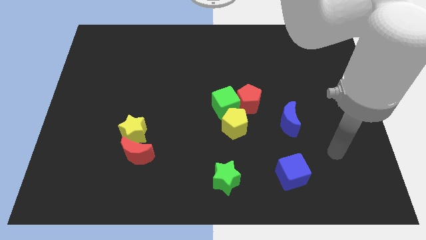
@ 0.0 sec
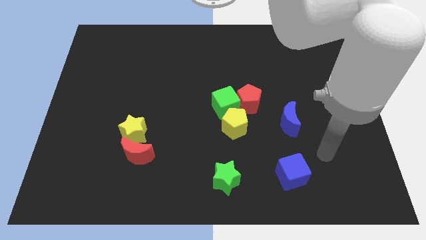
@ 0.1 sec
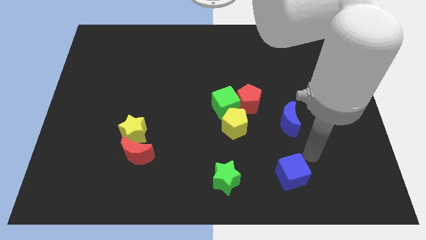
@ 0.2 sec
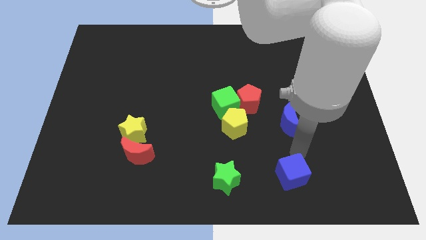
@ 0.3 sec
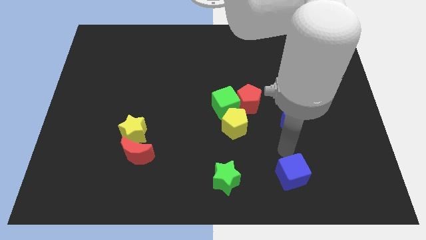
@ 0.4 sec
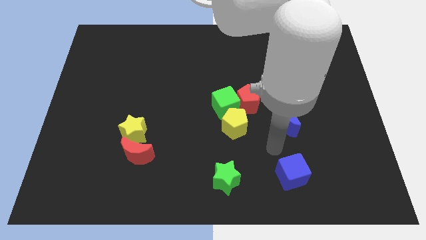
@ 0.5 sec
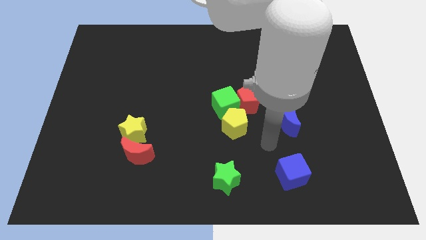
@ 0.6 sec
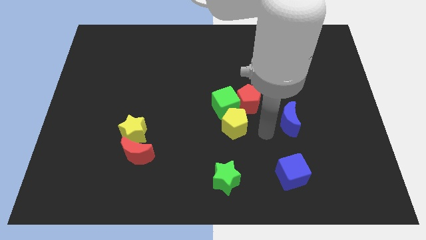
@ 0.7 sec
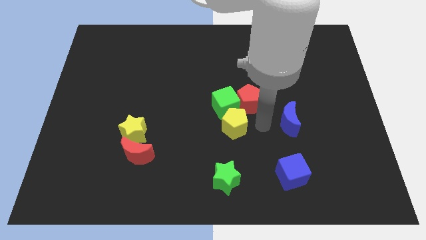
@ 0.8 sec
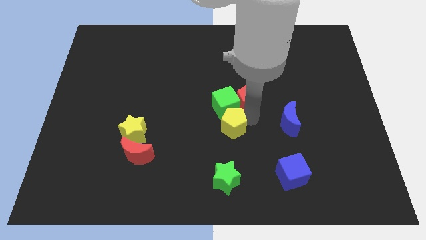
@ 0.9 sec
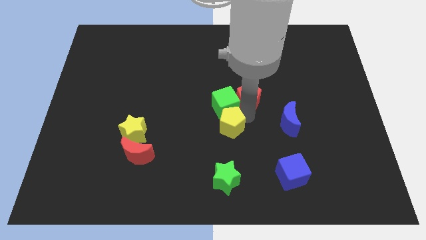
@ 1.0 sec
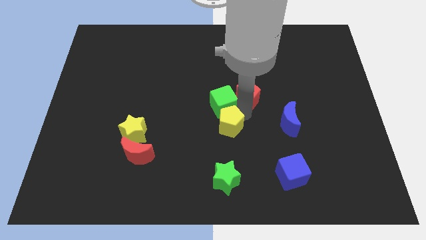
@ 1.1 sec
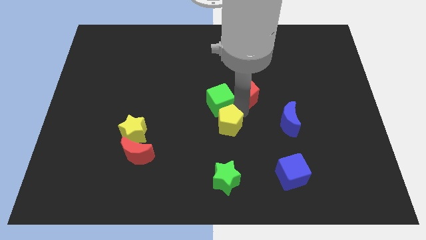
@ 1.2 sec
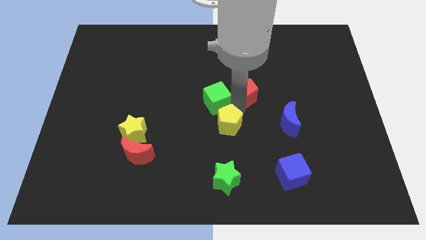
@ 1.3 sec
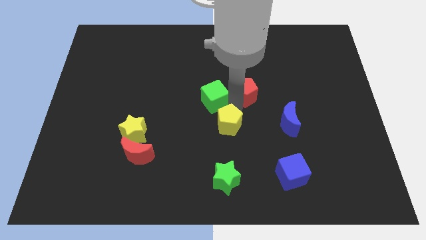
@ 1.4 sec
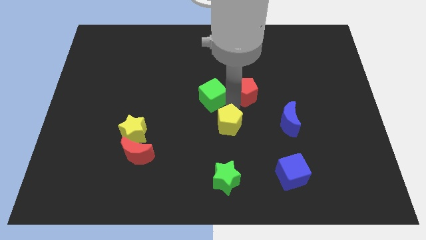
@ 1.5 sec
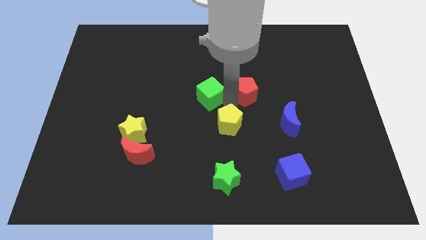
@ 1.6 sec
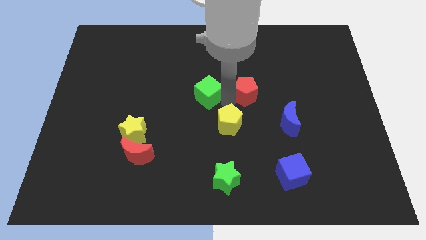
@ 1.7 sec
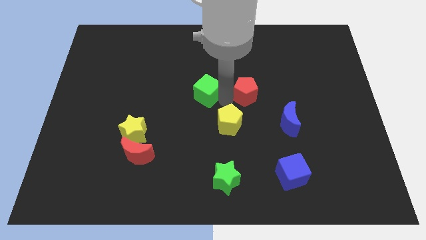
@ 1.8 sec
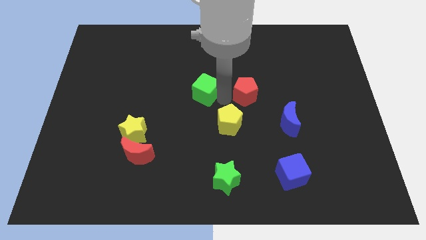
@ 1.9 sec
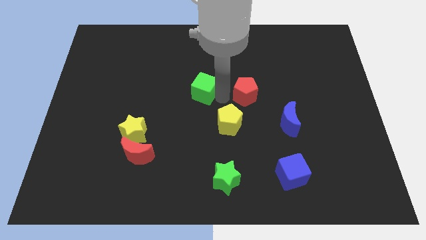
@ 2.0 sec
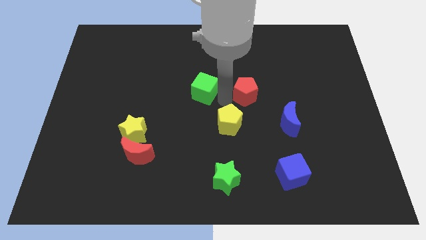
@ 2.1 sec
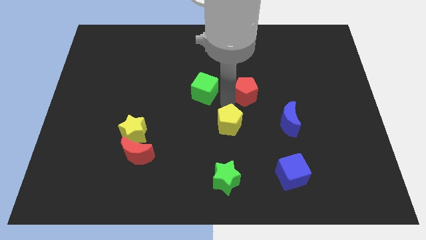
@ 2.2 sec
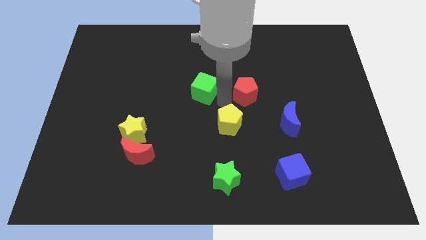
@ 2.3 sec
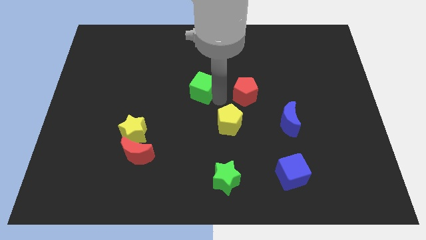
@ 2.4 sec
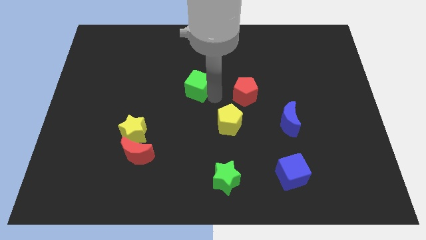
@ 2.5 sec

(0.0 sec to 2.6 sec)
pull the green cube apart from the red pentagon and yellow pentagon

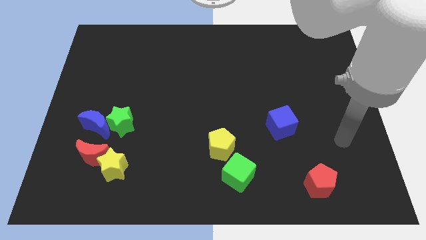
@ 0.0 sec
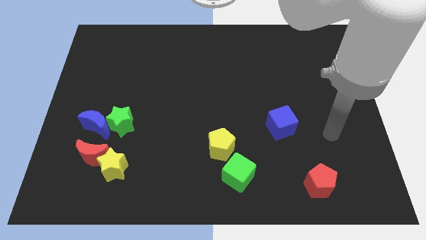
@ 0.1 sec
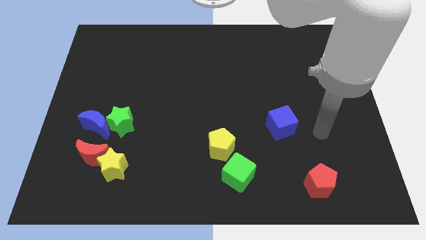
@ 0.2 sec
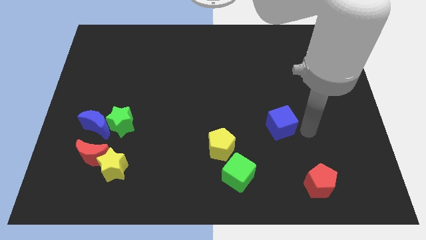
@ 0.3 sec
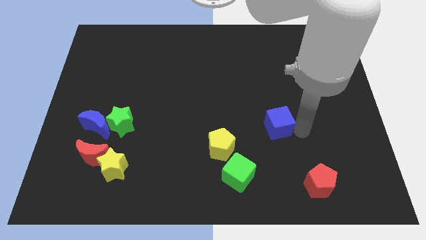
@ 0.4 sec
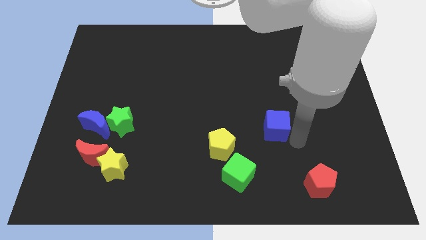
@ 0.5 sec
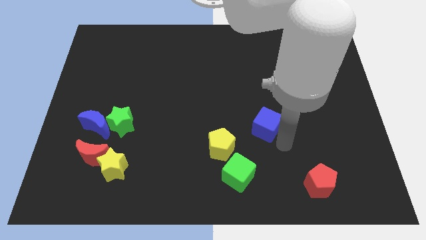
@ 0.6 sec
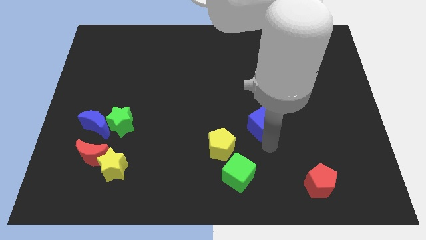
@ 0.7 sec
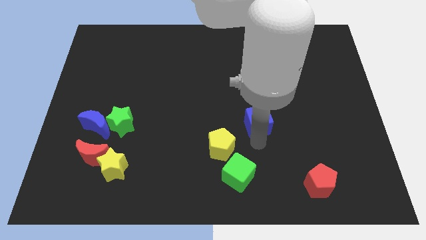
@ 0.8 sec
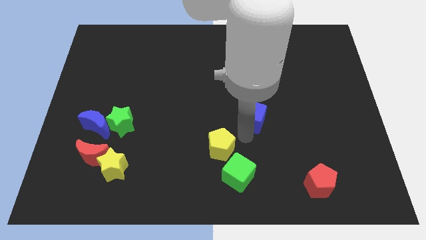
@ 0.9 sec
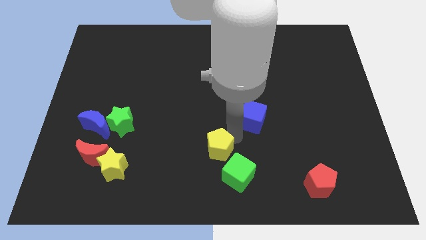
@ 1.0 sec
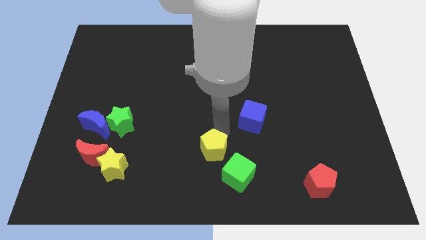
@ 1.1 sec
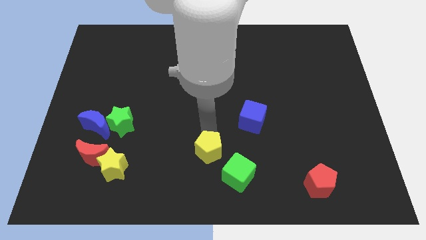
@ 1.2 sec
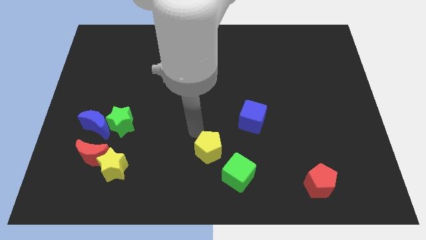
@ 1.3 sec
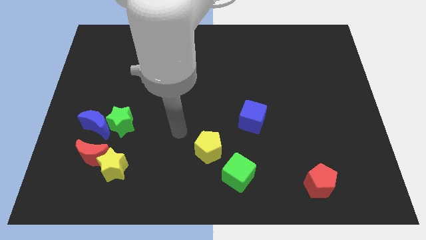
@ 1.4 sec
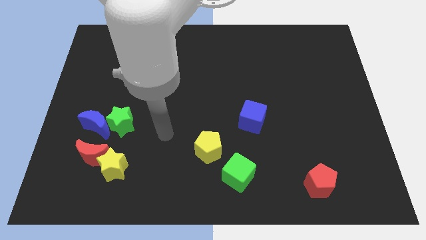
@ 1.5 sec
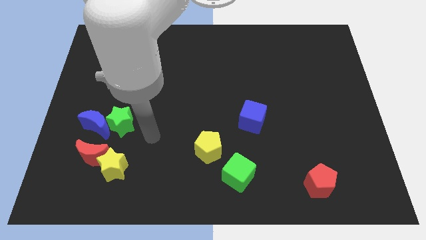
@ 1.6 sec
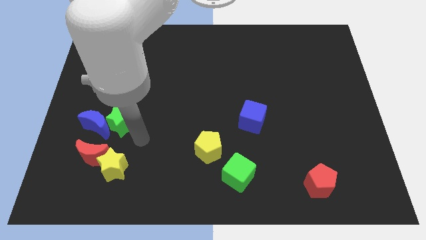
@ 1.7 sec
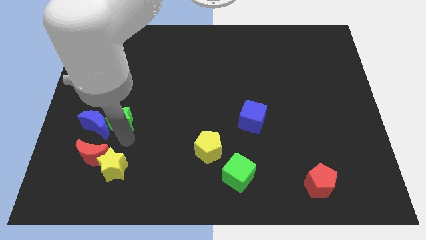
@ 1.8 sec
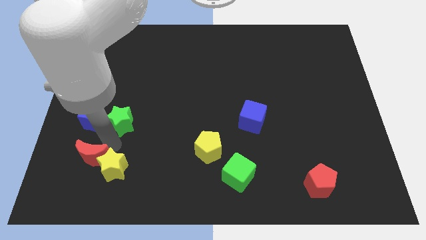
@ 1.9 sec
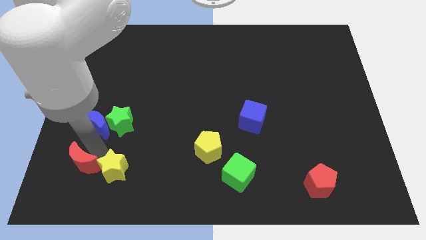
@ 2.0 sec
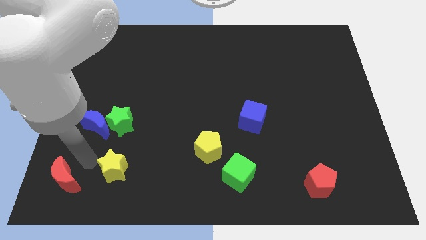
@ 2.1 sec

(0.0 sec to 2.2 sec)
pull the yellow star apart from the red moon

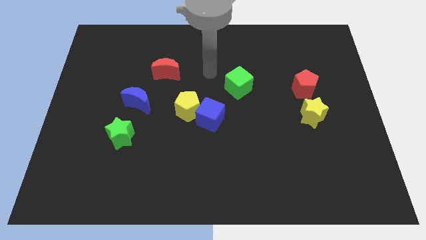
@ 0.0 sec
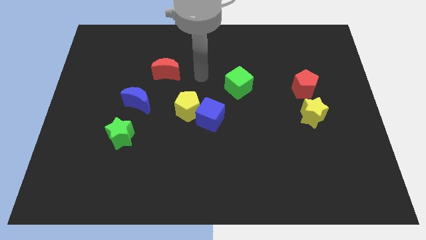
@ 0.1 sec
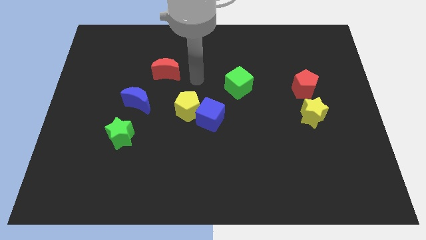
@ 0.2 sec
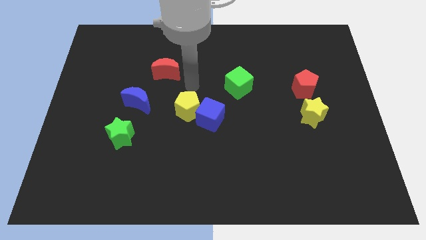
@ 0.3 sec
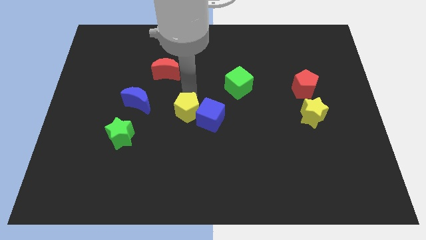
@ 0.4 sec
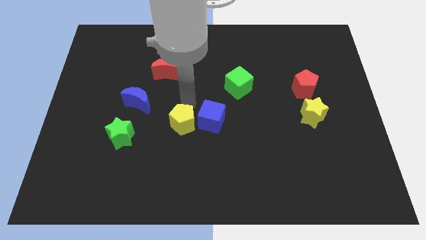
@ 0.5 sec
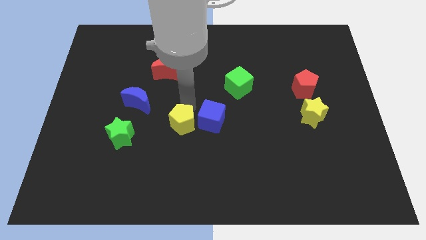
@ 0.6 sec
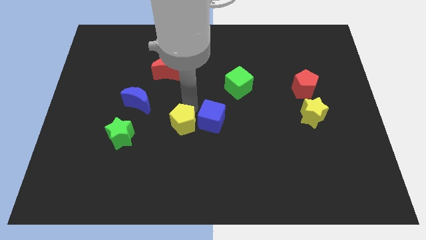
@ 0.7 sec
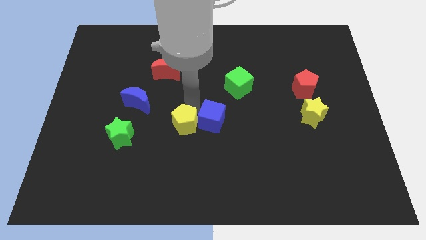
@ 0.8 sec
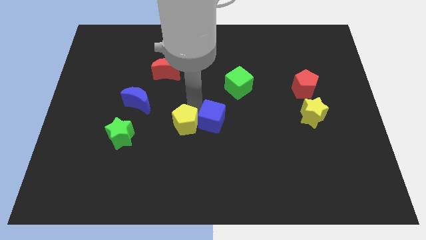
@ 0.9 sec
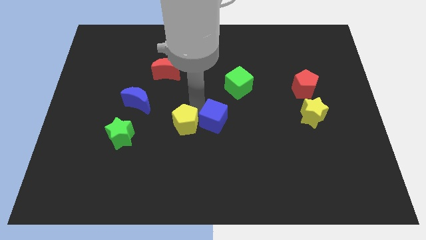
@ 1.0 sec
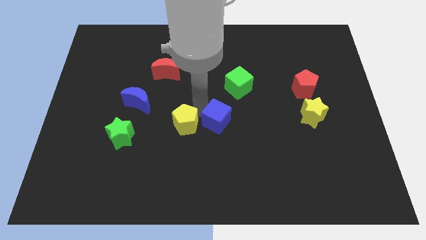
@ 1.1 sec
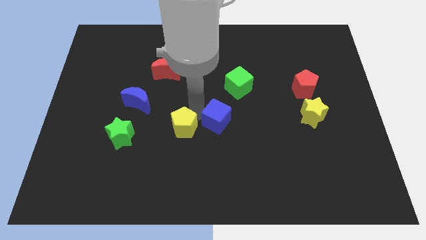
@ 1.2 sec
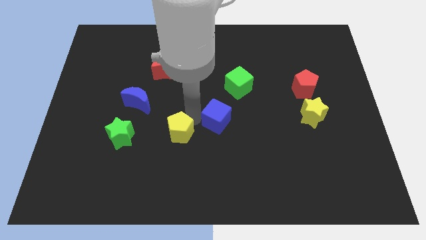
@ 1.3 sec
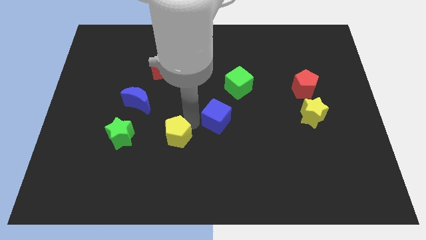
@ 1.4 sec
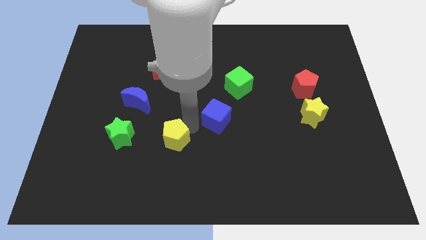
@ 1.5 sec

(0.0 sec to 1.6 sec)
pull the blue cube apart from the yellow pentagon

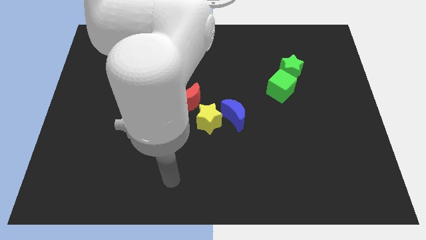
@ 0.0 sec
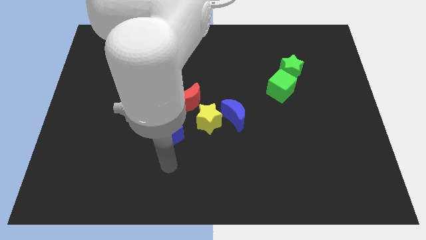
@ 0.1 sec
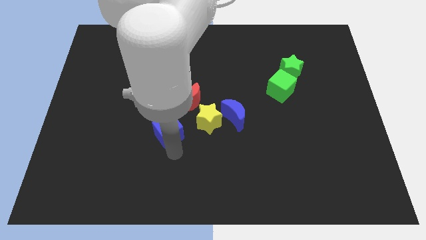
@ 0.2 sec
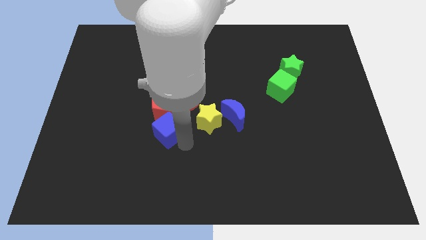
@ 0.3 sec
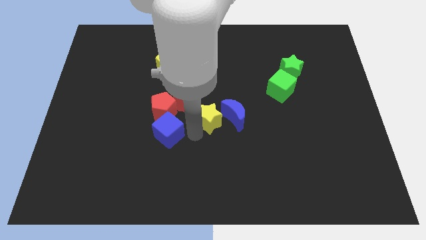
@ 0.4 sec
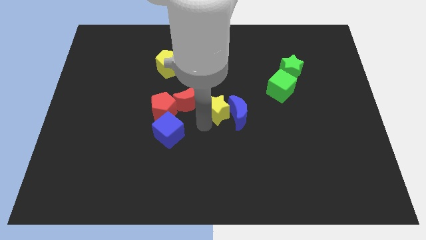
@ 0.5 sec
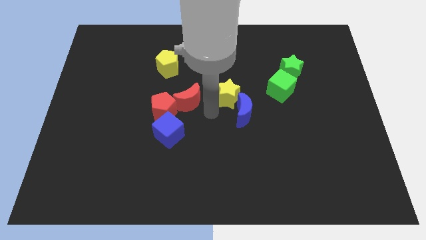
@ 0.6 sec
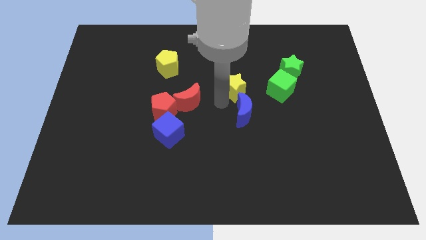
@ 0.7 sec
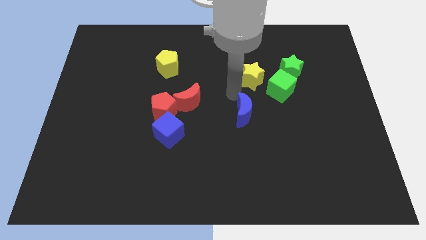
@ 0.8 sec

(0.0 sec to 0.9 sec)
move the blue moon away from the yellow star

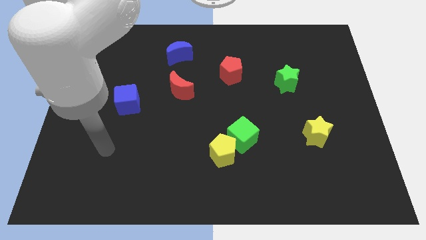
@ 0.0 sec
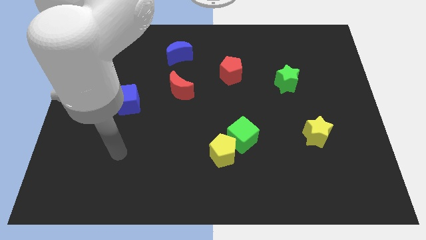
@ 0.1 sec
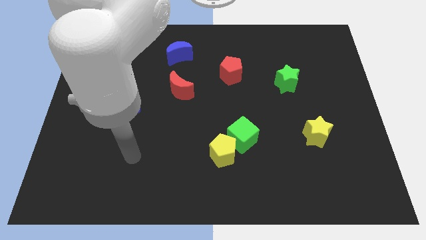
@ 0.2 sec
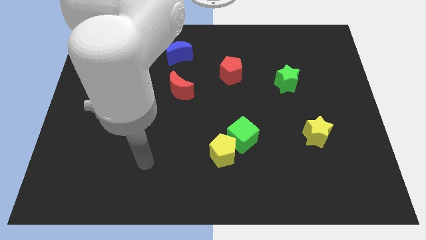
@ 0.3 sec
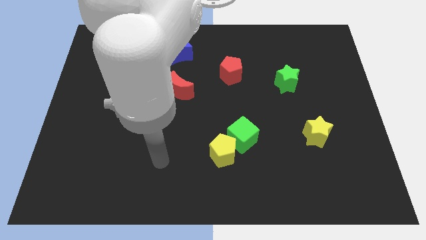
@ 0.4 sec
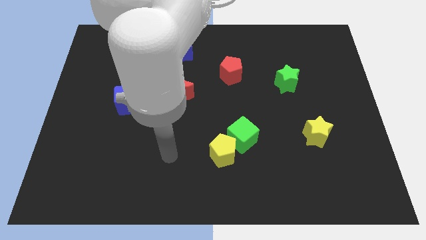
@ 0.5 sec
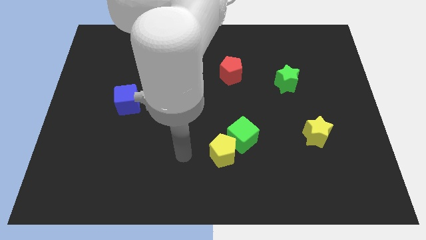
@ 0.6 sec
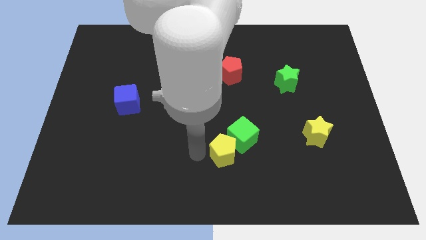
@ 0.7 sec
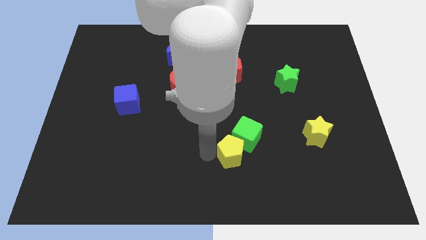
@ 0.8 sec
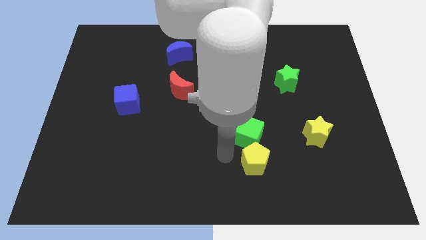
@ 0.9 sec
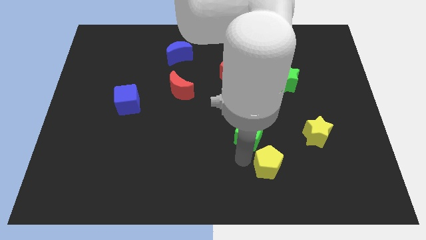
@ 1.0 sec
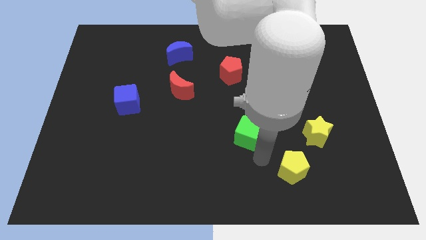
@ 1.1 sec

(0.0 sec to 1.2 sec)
move the green cube away from the yellow pentagon

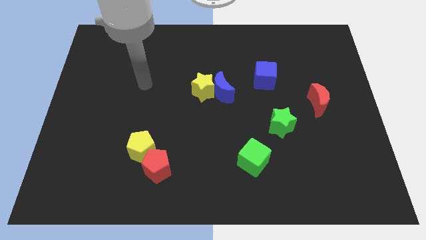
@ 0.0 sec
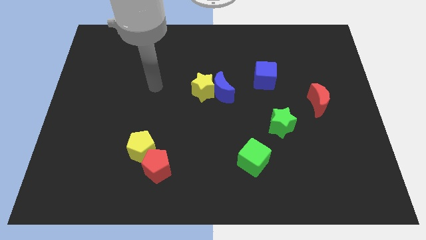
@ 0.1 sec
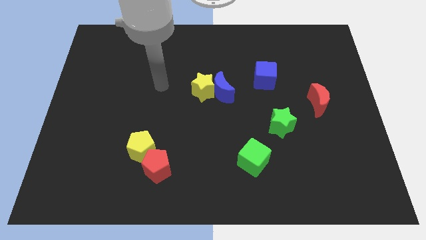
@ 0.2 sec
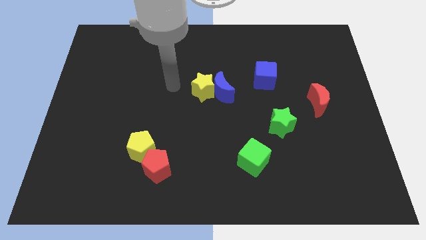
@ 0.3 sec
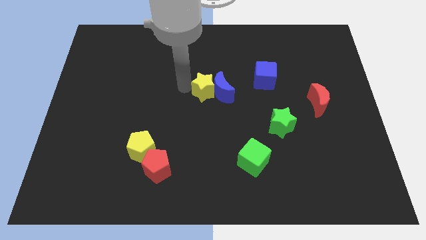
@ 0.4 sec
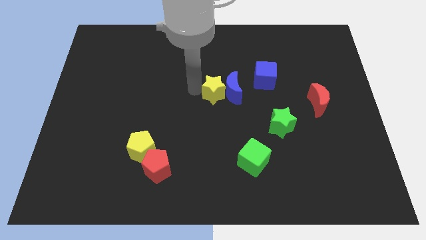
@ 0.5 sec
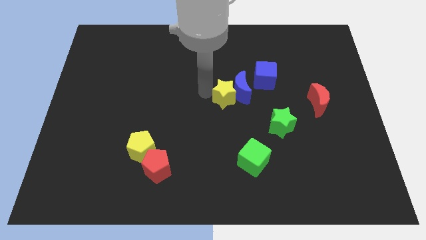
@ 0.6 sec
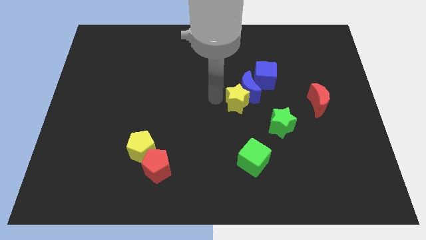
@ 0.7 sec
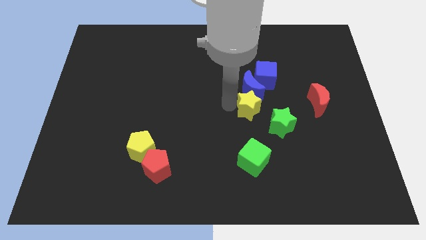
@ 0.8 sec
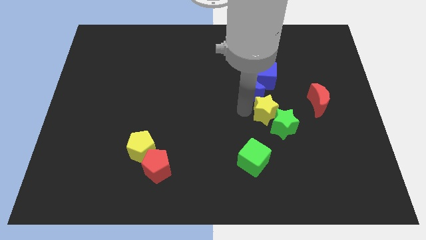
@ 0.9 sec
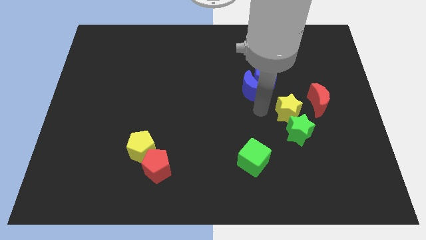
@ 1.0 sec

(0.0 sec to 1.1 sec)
separate the blue moon from the yellow star
